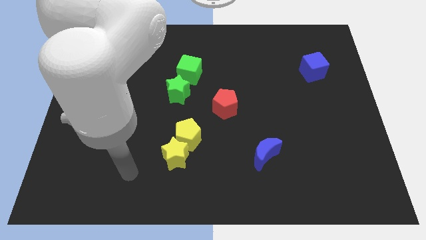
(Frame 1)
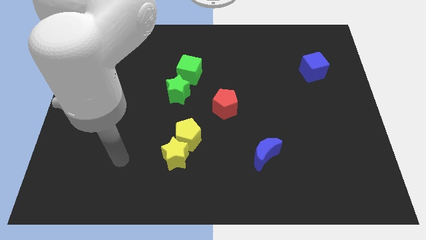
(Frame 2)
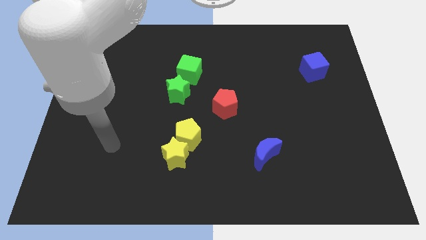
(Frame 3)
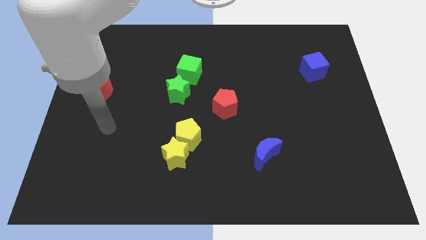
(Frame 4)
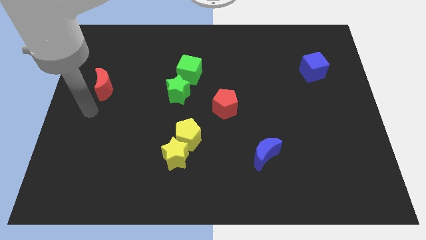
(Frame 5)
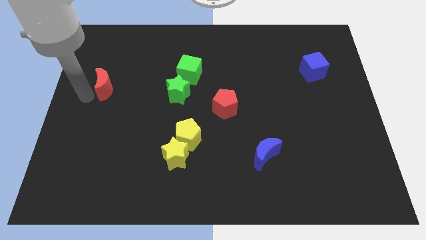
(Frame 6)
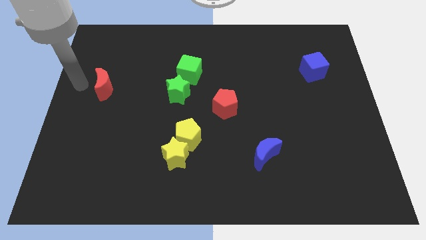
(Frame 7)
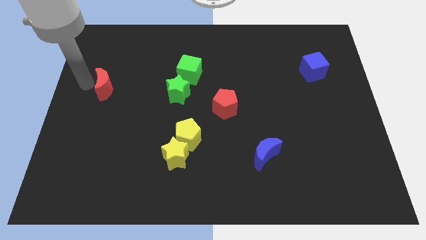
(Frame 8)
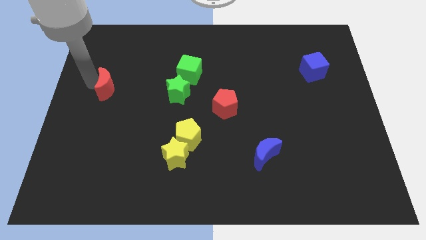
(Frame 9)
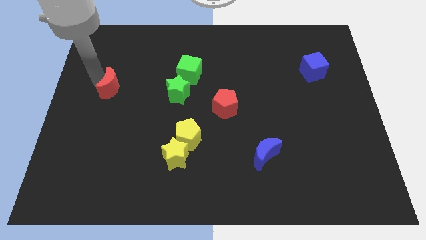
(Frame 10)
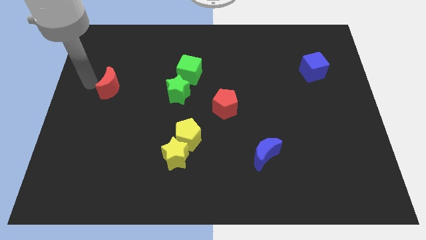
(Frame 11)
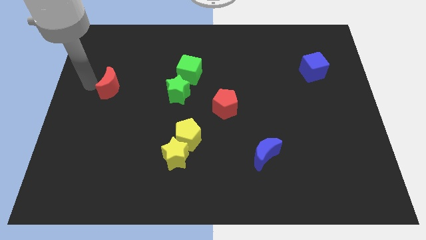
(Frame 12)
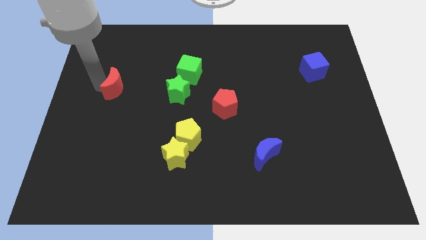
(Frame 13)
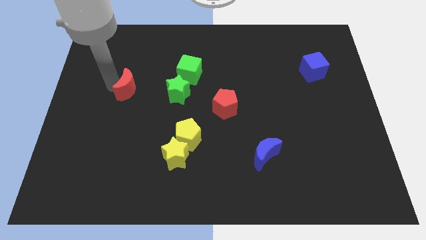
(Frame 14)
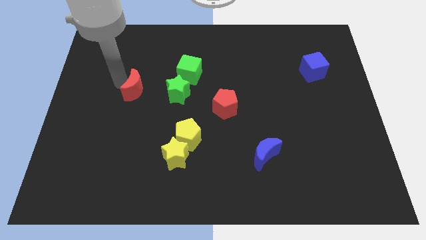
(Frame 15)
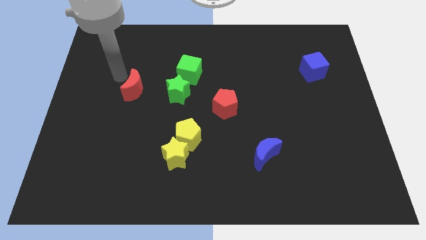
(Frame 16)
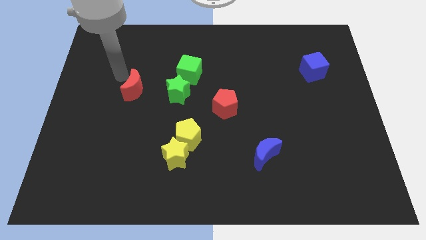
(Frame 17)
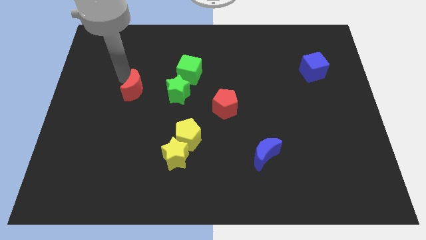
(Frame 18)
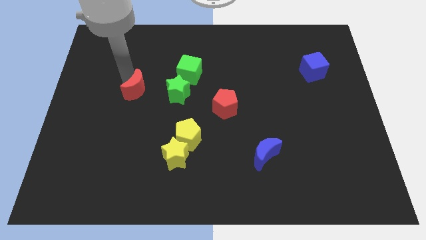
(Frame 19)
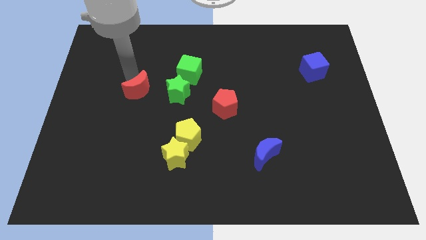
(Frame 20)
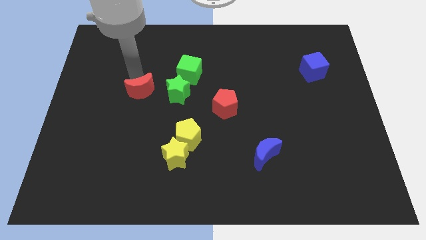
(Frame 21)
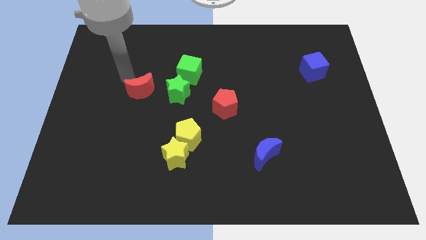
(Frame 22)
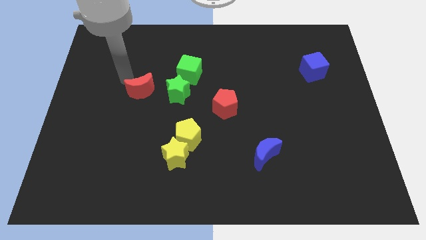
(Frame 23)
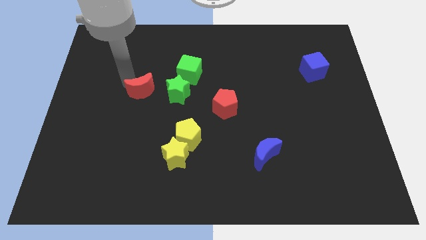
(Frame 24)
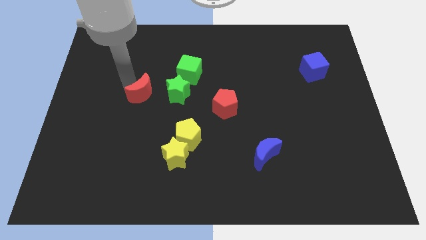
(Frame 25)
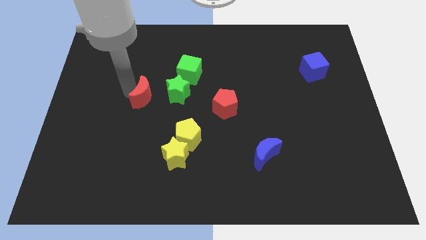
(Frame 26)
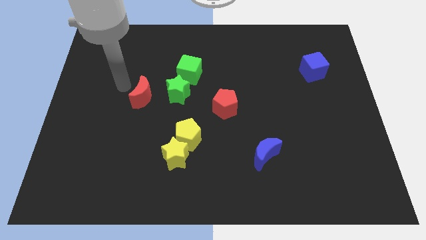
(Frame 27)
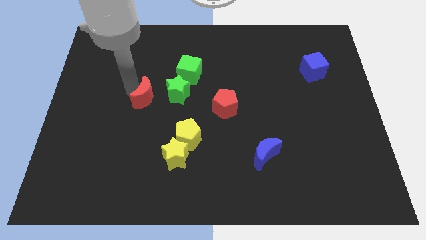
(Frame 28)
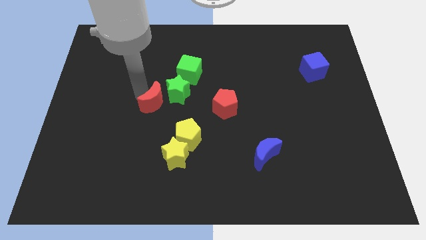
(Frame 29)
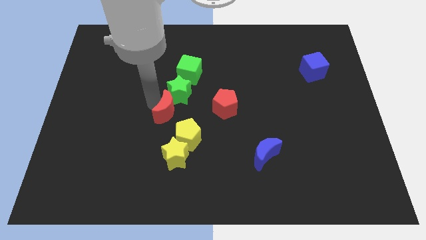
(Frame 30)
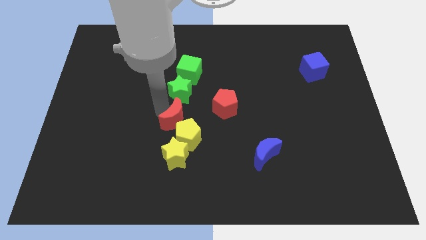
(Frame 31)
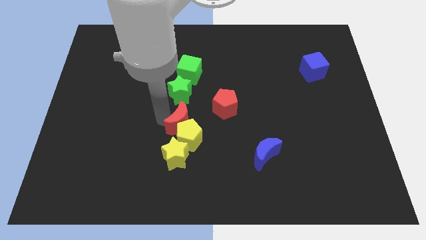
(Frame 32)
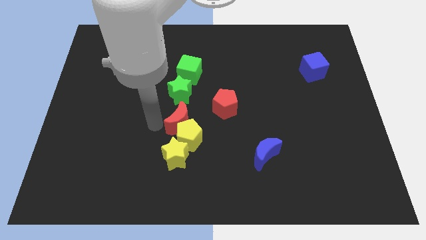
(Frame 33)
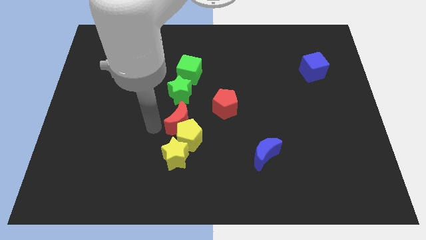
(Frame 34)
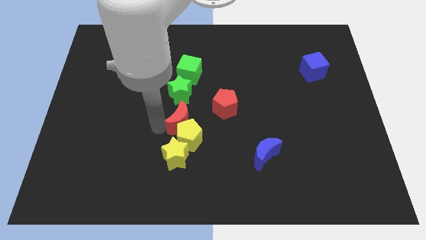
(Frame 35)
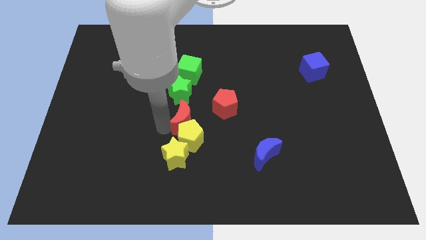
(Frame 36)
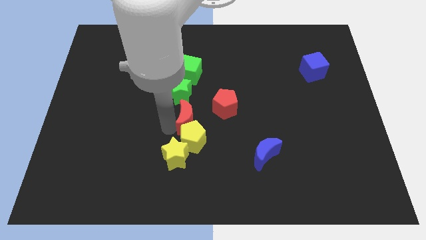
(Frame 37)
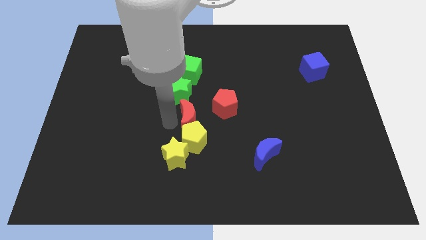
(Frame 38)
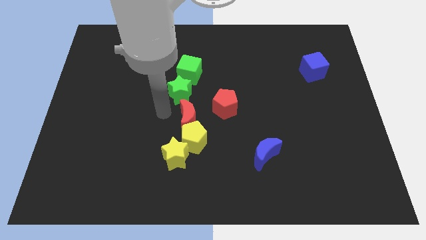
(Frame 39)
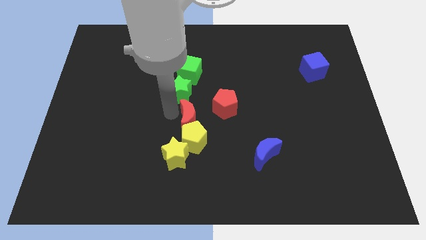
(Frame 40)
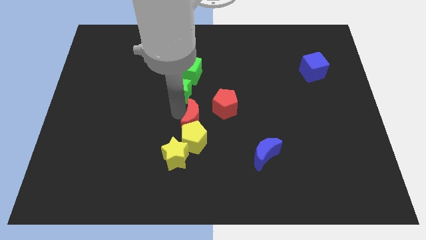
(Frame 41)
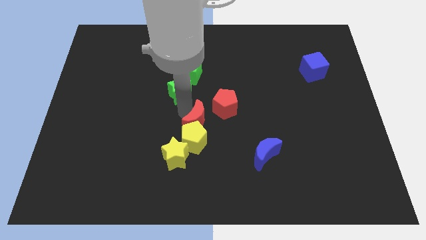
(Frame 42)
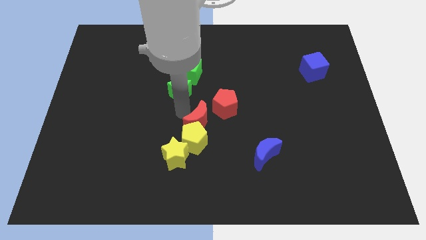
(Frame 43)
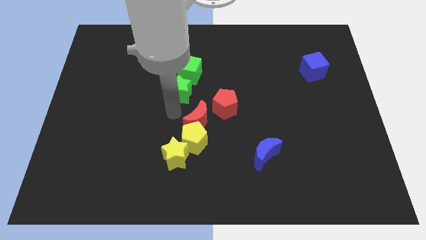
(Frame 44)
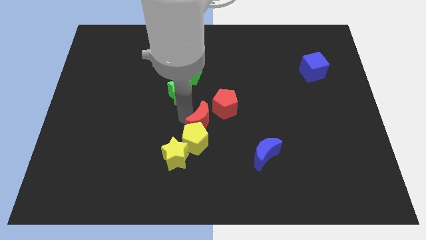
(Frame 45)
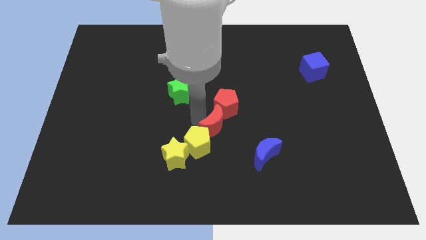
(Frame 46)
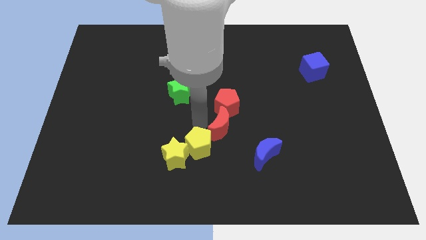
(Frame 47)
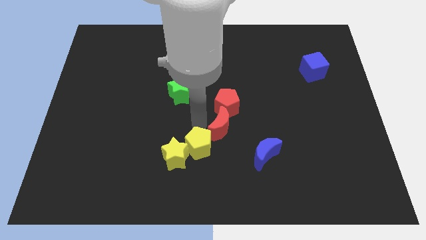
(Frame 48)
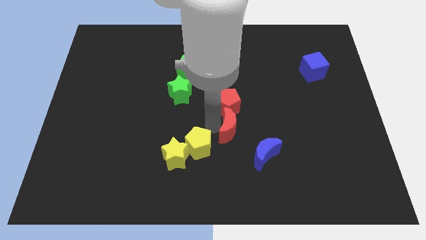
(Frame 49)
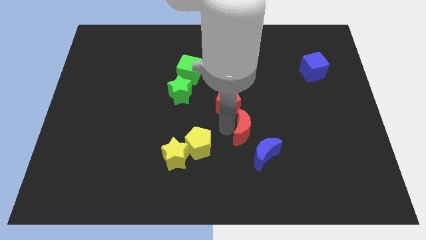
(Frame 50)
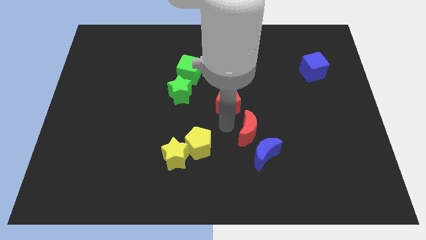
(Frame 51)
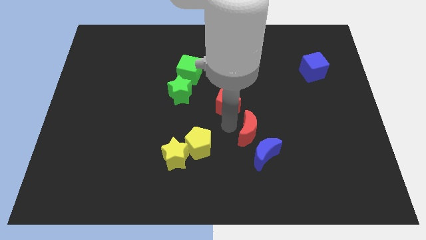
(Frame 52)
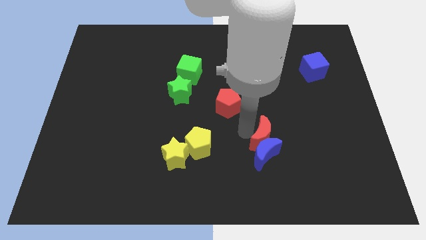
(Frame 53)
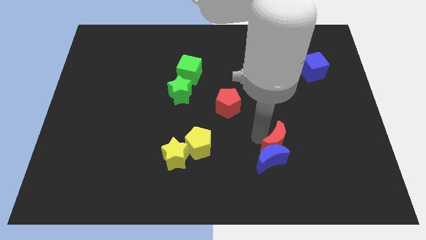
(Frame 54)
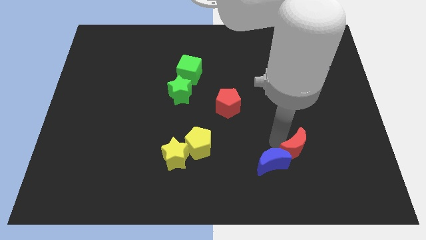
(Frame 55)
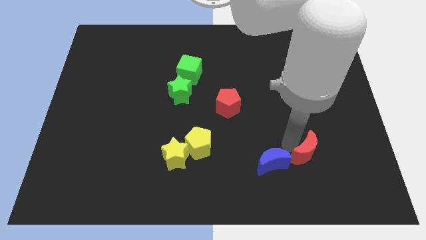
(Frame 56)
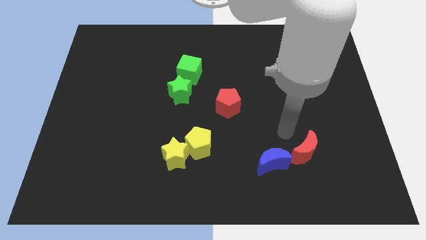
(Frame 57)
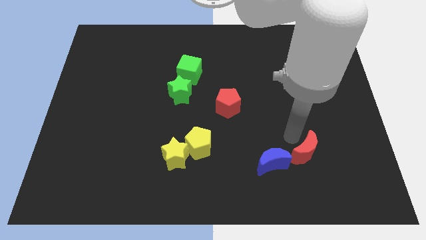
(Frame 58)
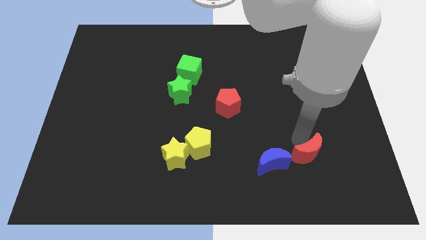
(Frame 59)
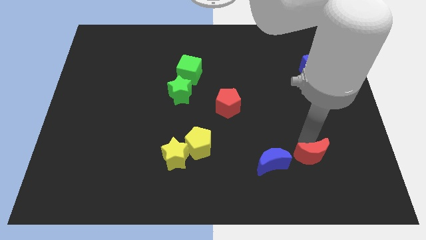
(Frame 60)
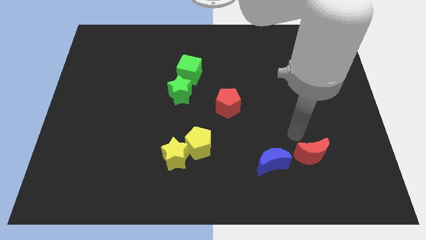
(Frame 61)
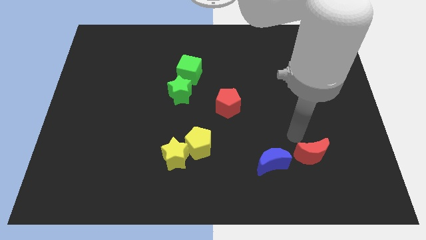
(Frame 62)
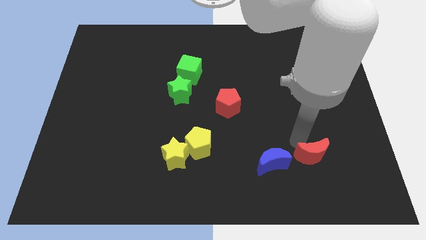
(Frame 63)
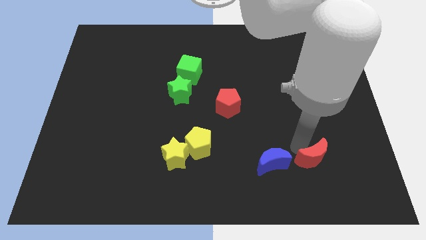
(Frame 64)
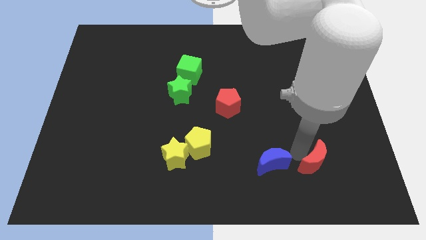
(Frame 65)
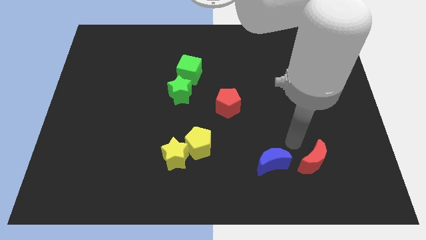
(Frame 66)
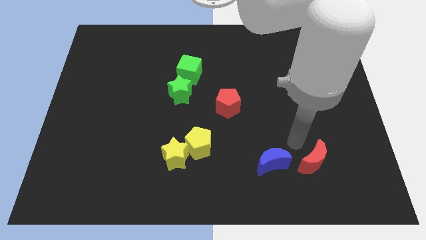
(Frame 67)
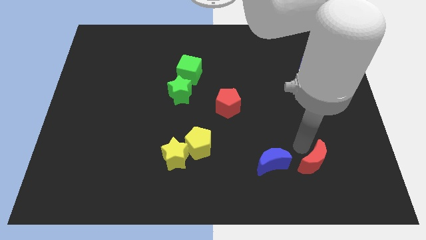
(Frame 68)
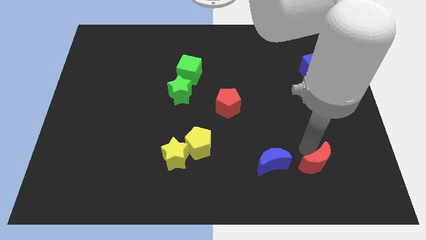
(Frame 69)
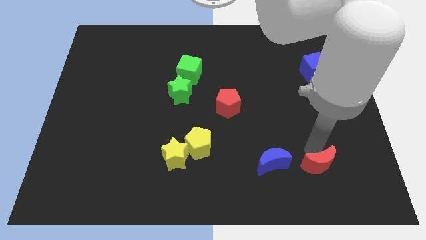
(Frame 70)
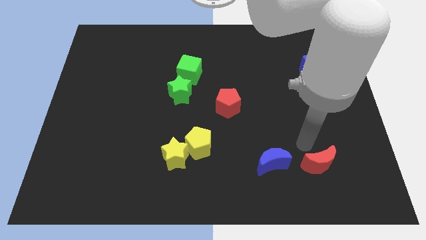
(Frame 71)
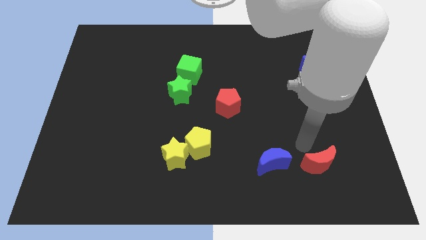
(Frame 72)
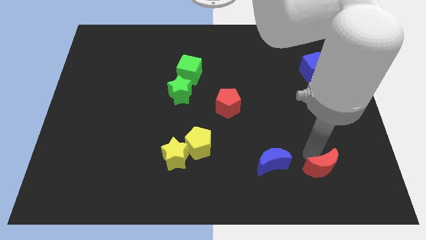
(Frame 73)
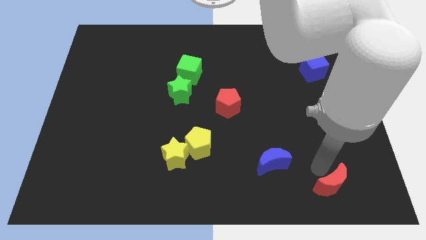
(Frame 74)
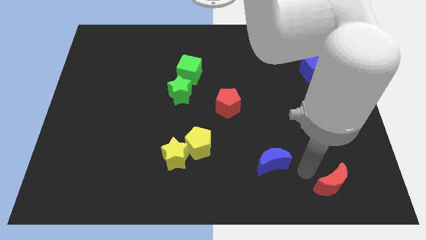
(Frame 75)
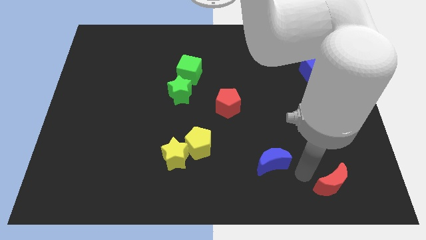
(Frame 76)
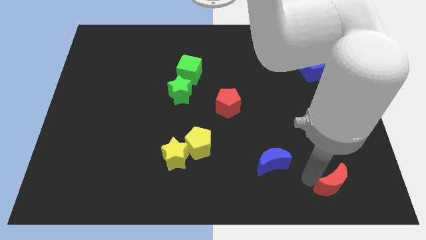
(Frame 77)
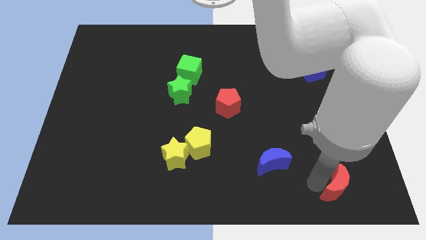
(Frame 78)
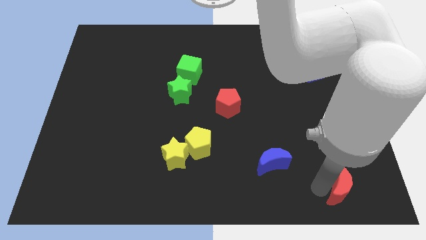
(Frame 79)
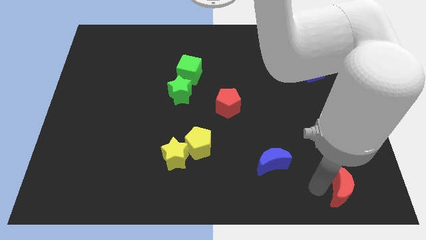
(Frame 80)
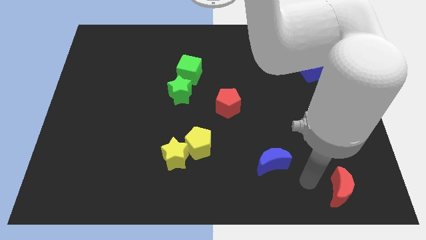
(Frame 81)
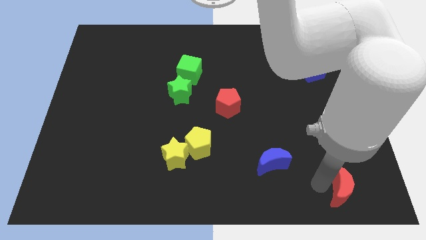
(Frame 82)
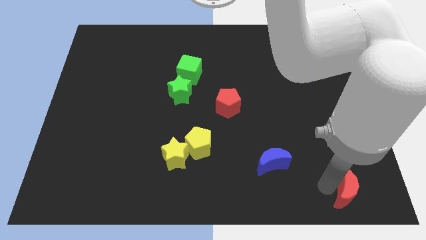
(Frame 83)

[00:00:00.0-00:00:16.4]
put the red moon to the bottom right
